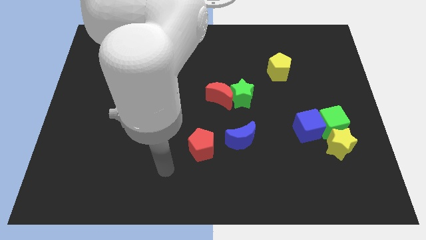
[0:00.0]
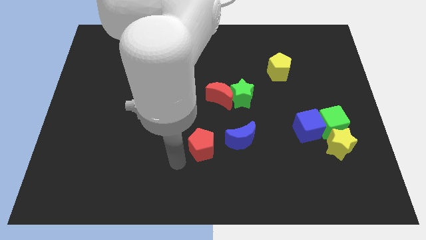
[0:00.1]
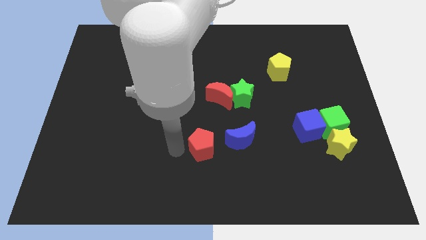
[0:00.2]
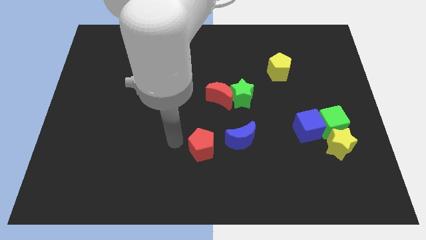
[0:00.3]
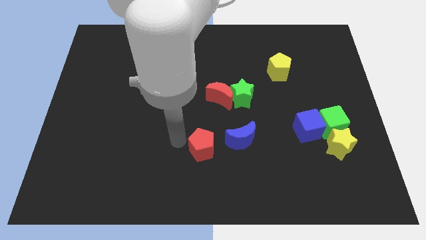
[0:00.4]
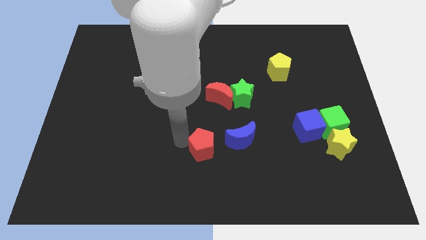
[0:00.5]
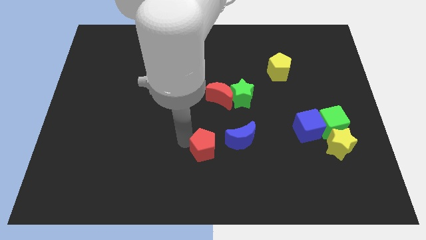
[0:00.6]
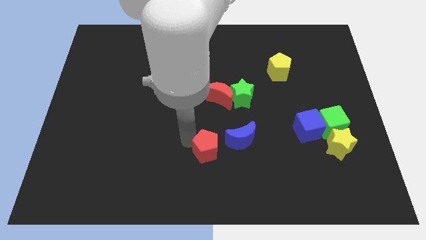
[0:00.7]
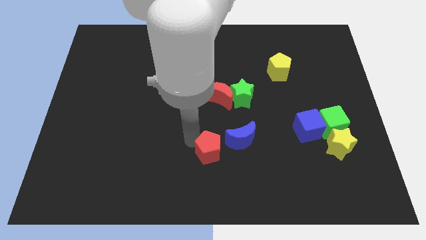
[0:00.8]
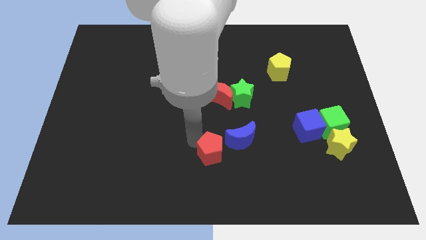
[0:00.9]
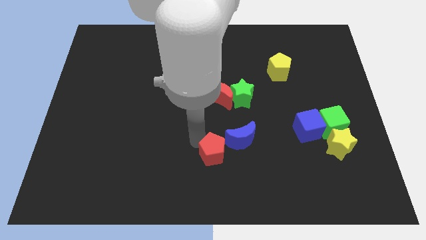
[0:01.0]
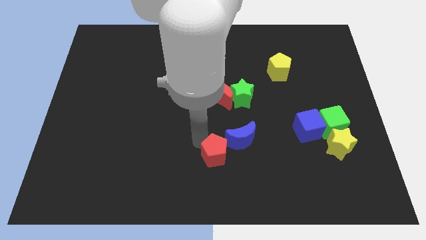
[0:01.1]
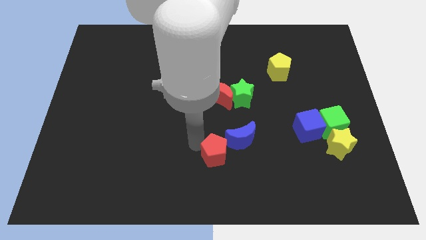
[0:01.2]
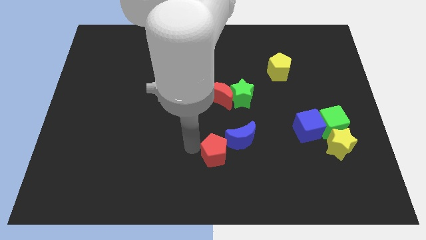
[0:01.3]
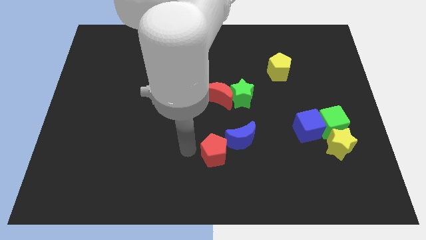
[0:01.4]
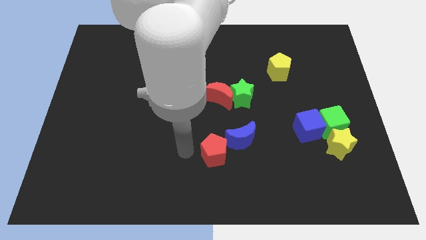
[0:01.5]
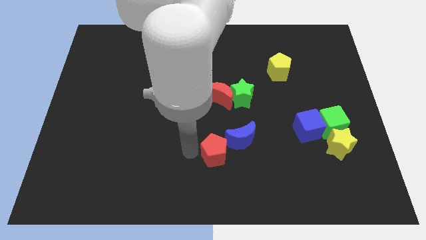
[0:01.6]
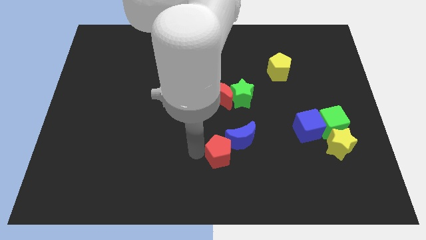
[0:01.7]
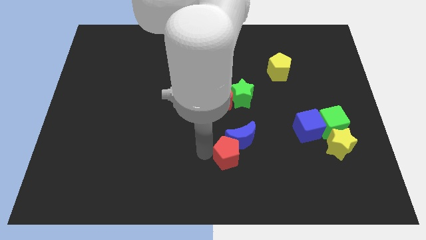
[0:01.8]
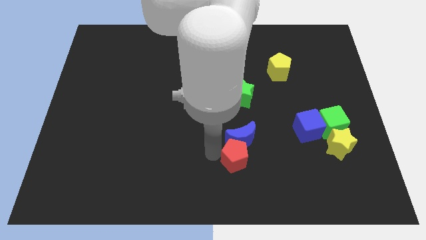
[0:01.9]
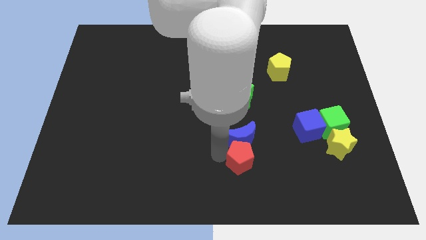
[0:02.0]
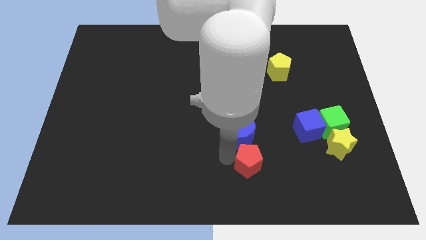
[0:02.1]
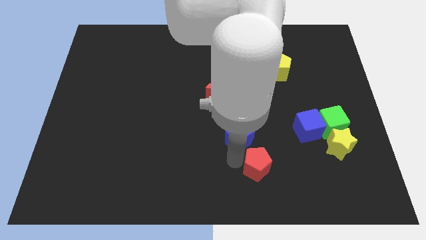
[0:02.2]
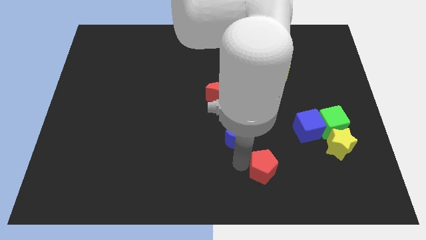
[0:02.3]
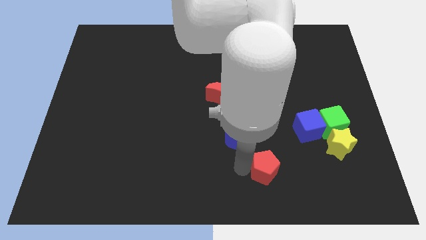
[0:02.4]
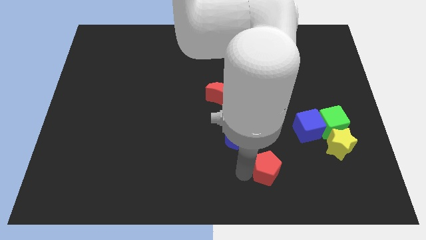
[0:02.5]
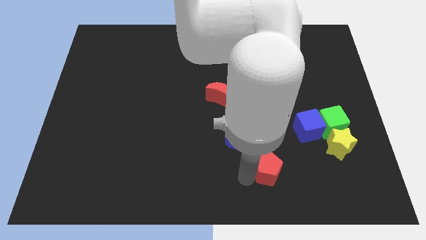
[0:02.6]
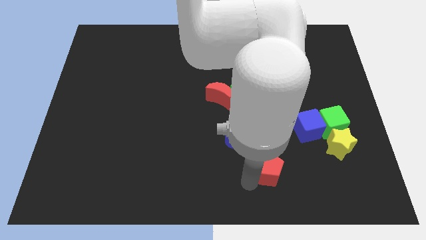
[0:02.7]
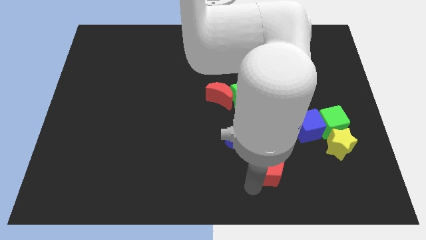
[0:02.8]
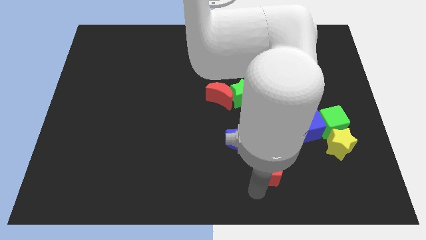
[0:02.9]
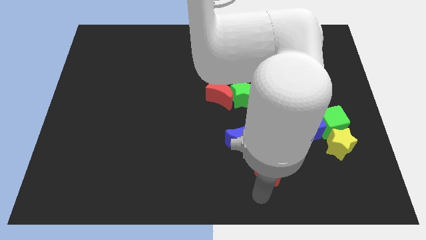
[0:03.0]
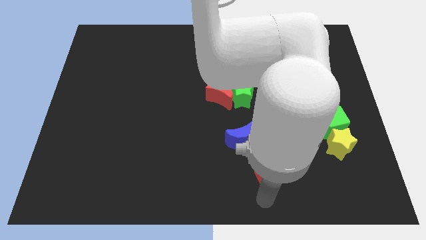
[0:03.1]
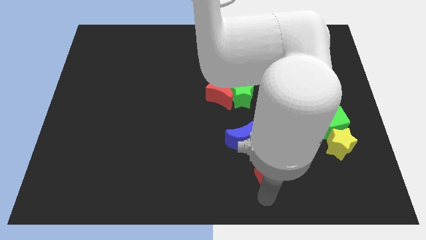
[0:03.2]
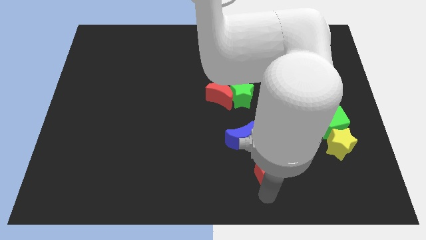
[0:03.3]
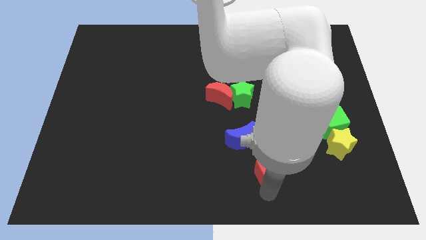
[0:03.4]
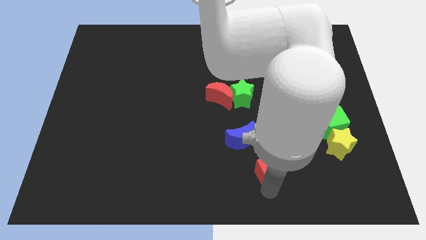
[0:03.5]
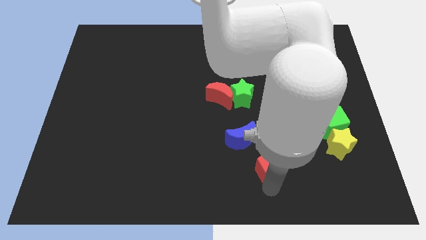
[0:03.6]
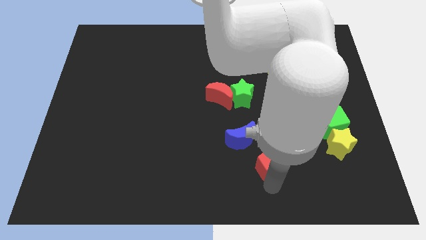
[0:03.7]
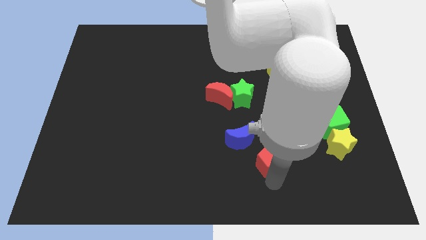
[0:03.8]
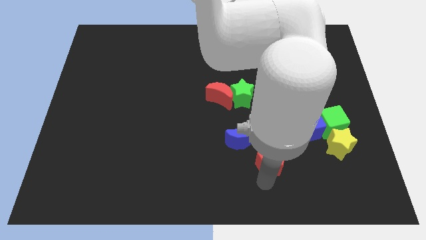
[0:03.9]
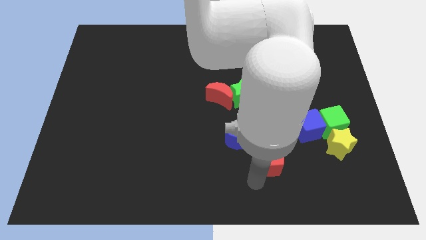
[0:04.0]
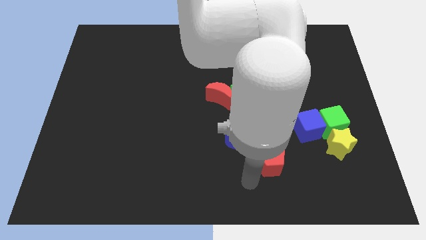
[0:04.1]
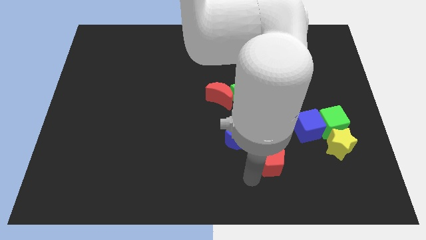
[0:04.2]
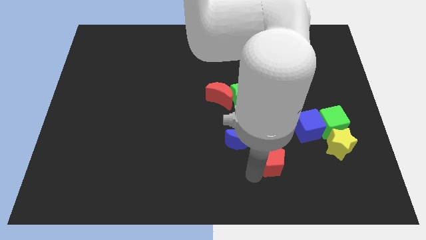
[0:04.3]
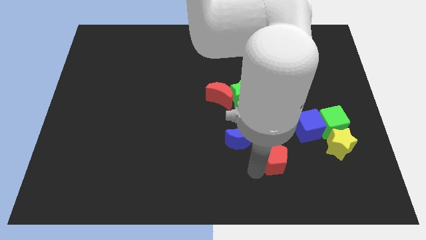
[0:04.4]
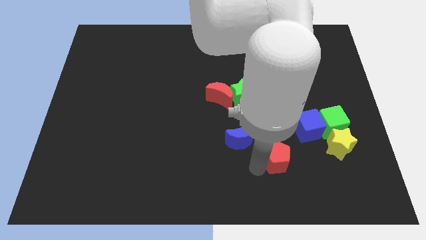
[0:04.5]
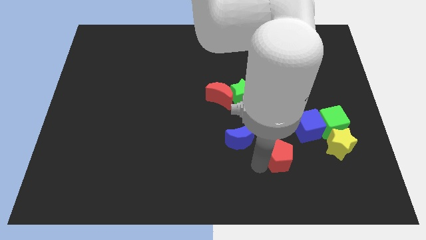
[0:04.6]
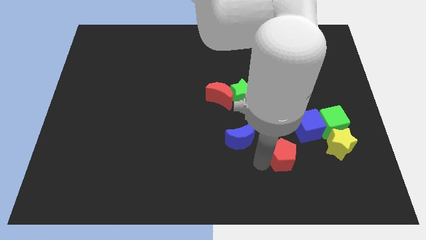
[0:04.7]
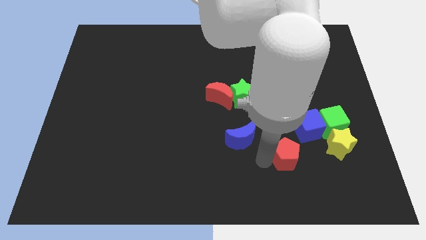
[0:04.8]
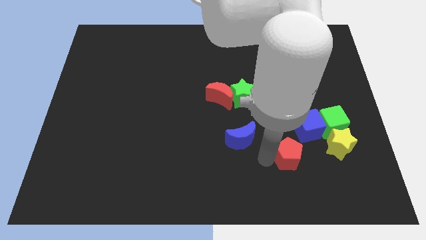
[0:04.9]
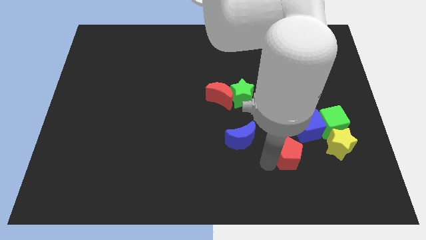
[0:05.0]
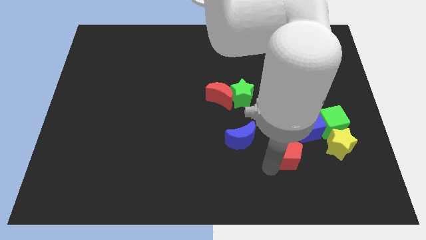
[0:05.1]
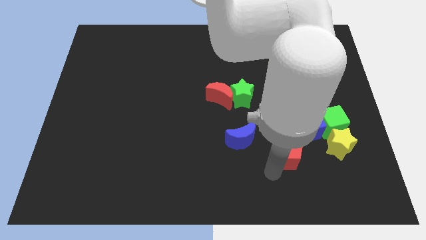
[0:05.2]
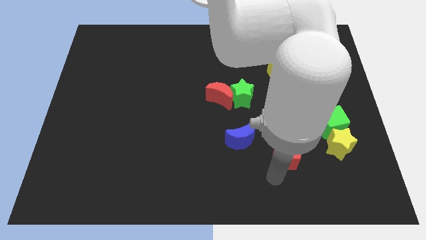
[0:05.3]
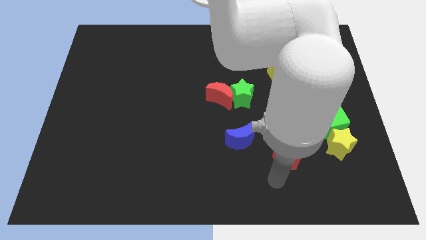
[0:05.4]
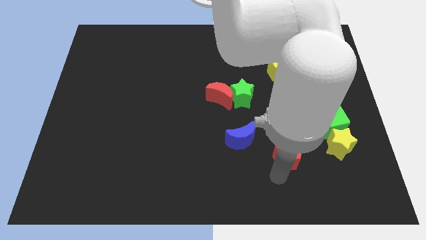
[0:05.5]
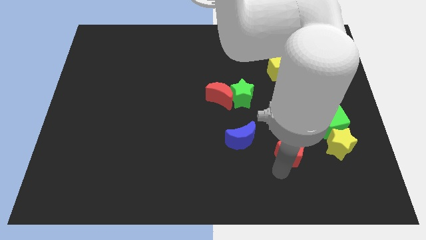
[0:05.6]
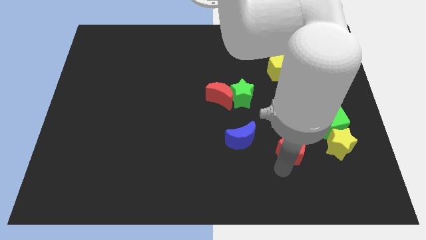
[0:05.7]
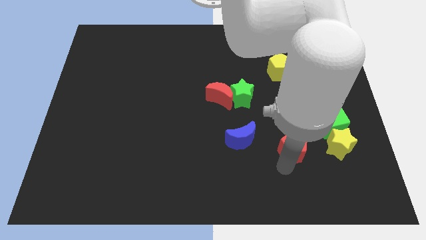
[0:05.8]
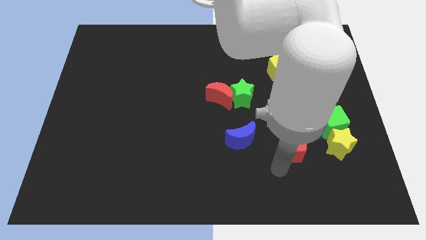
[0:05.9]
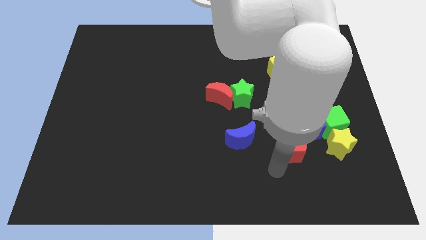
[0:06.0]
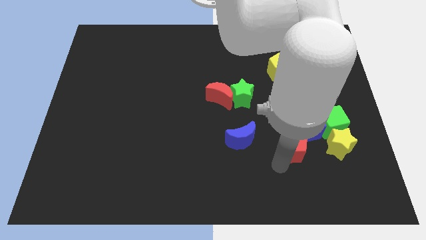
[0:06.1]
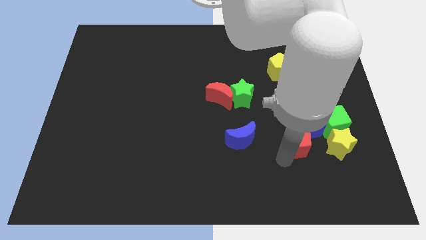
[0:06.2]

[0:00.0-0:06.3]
put the red pentagon next to the blue cube

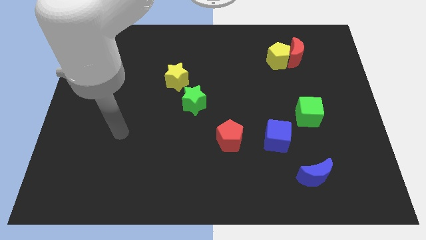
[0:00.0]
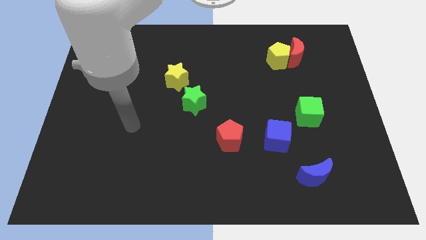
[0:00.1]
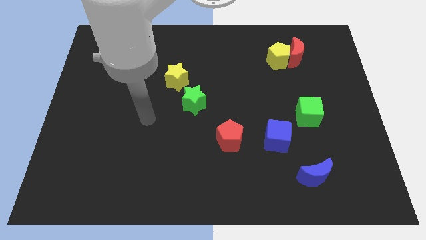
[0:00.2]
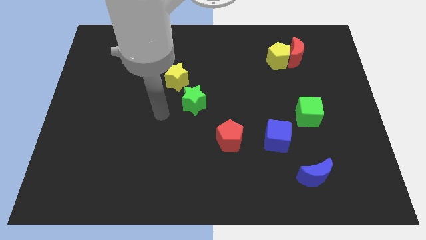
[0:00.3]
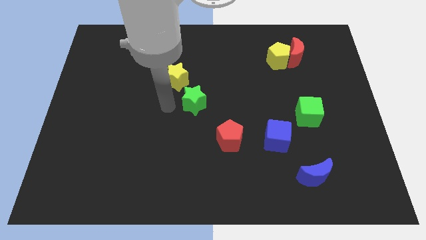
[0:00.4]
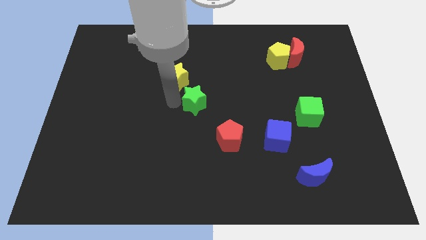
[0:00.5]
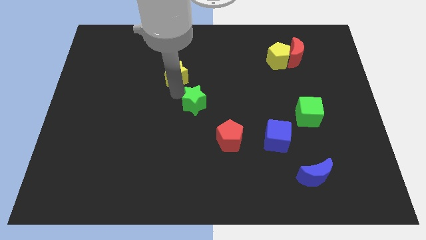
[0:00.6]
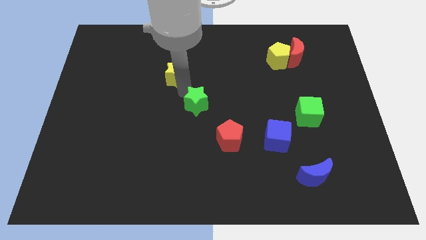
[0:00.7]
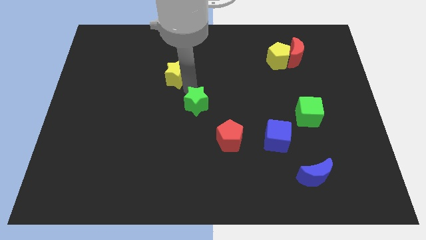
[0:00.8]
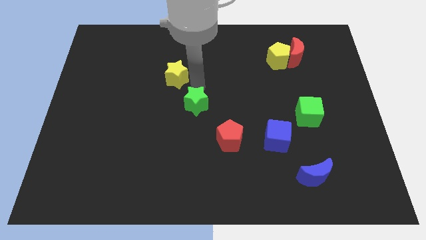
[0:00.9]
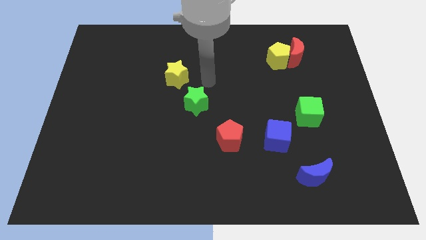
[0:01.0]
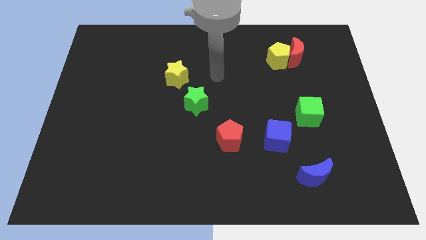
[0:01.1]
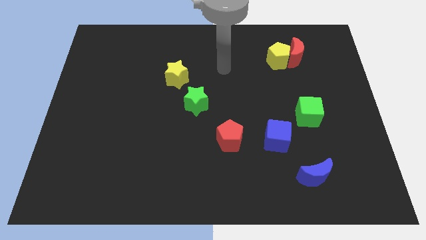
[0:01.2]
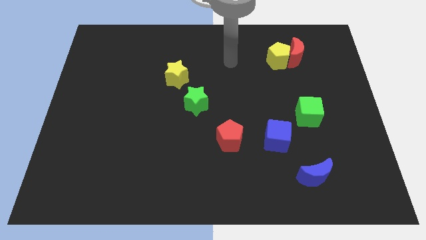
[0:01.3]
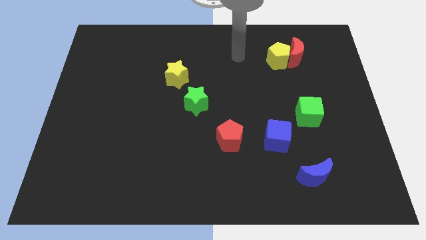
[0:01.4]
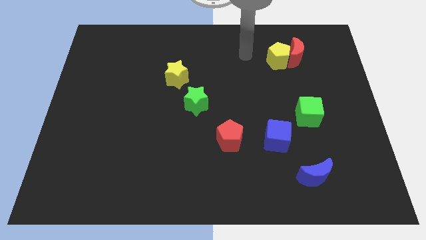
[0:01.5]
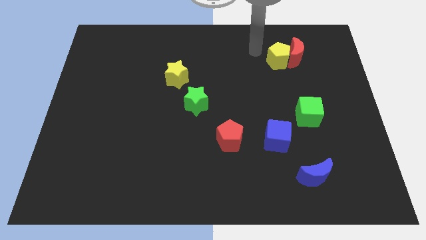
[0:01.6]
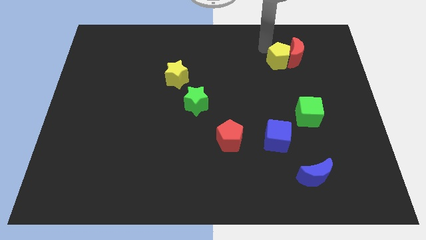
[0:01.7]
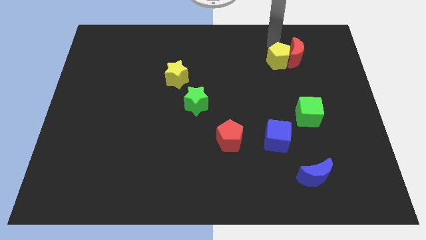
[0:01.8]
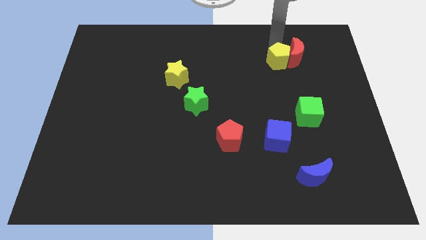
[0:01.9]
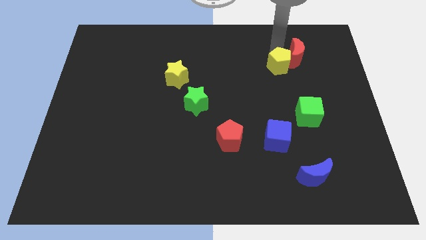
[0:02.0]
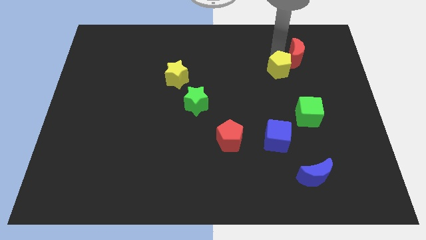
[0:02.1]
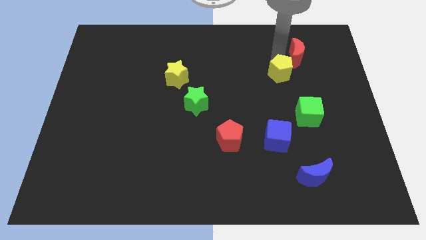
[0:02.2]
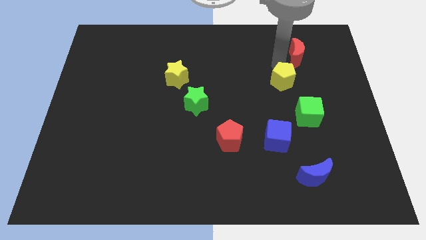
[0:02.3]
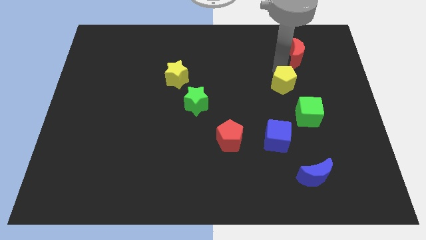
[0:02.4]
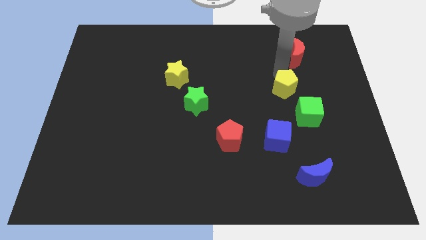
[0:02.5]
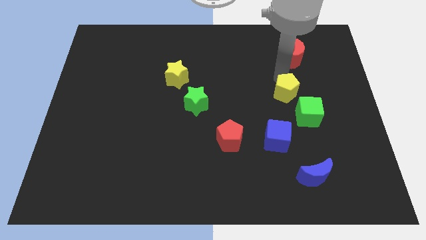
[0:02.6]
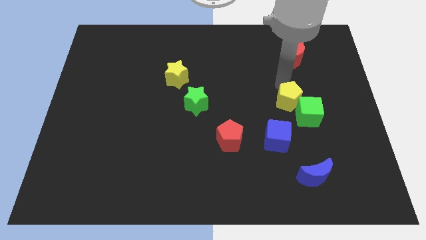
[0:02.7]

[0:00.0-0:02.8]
move the yellow pentagon to the green cube
